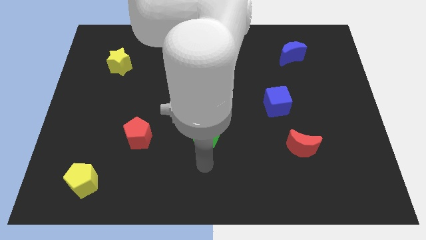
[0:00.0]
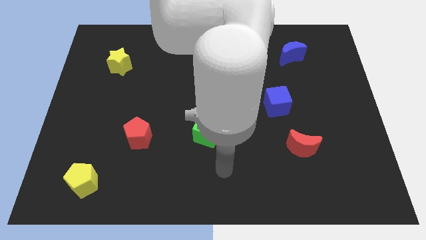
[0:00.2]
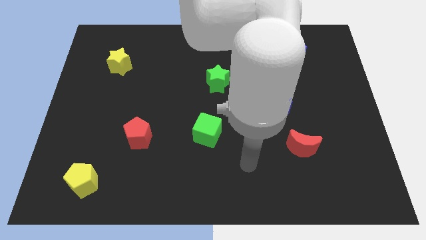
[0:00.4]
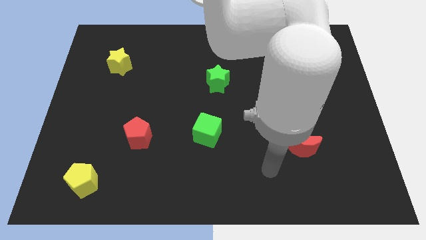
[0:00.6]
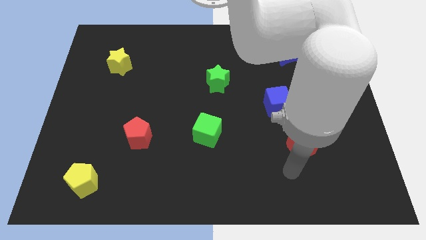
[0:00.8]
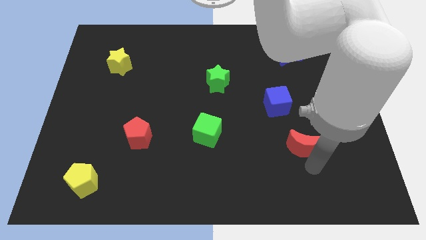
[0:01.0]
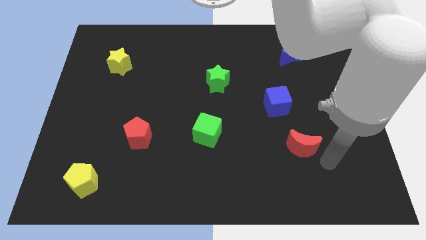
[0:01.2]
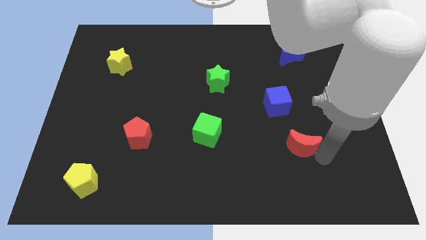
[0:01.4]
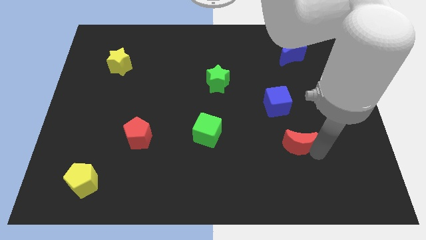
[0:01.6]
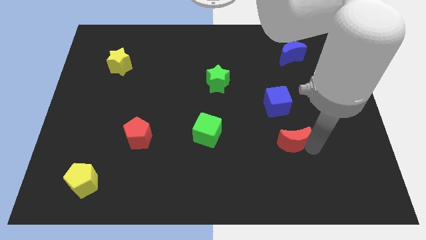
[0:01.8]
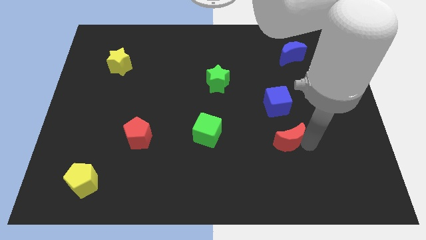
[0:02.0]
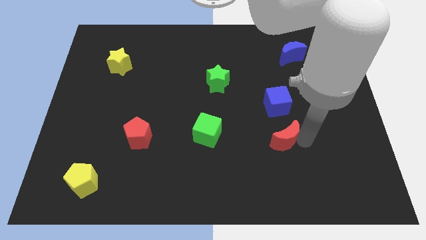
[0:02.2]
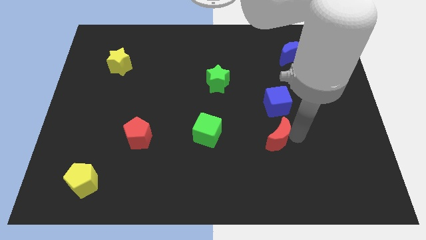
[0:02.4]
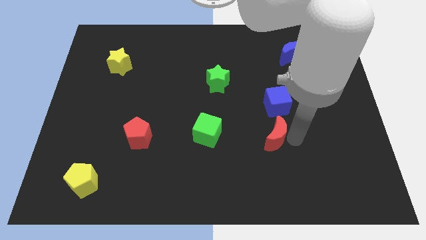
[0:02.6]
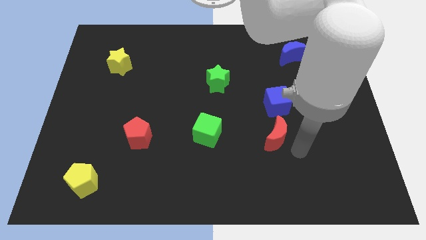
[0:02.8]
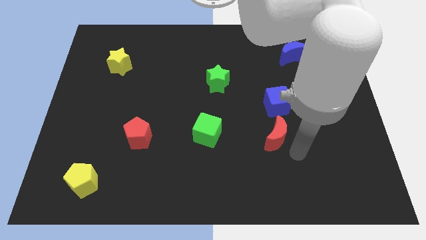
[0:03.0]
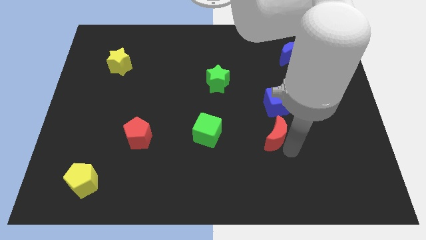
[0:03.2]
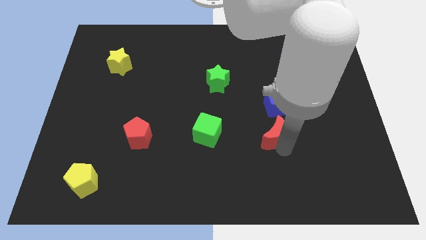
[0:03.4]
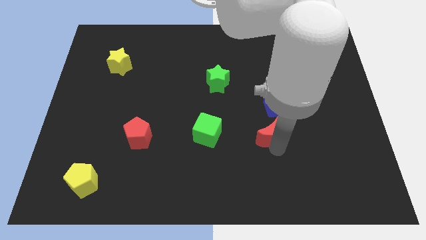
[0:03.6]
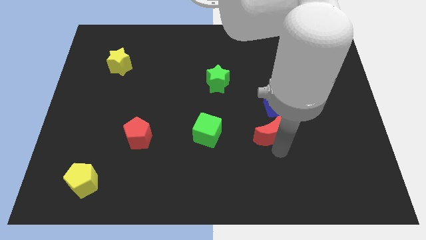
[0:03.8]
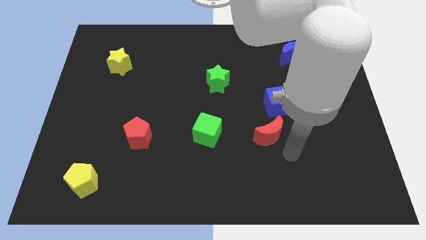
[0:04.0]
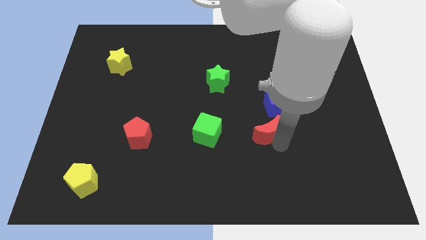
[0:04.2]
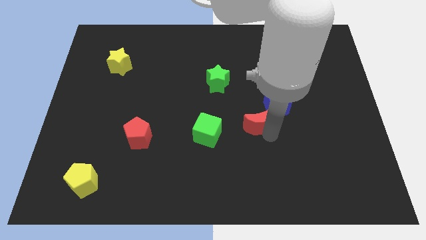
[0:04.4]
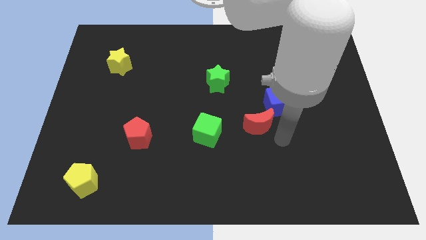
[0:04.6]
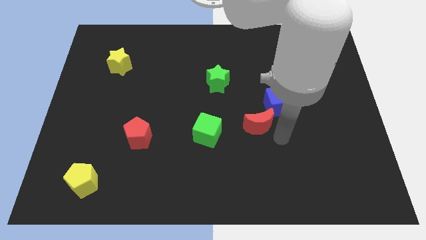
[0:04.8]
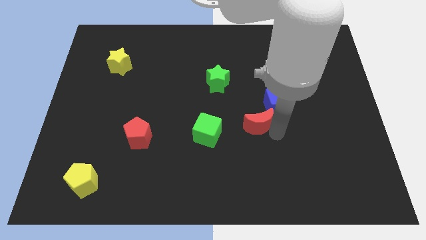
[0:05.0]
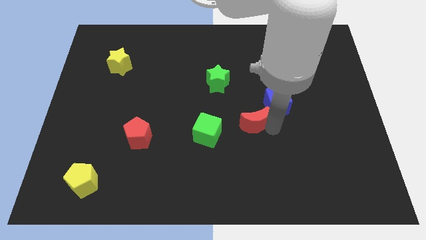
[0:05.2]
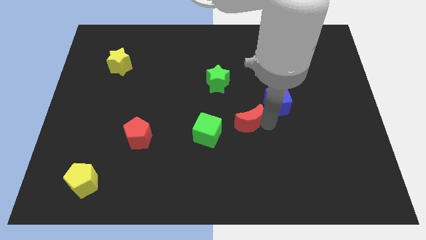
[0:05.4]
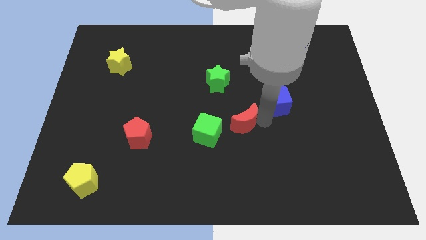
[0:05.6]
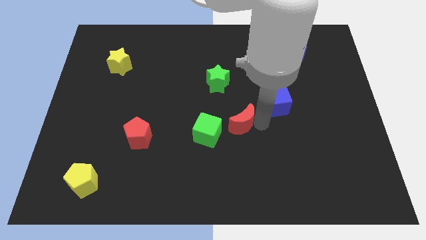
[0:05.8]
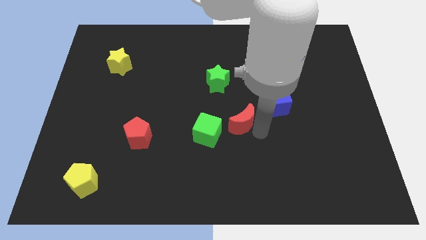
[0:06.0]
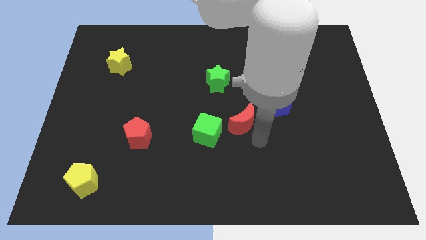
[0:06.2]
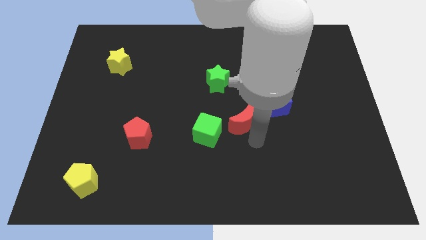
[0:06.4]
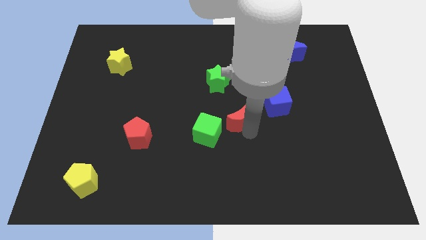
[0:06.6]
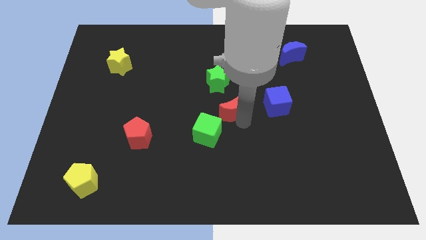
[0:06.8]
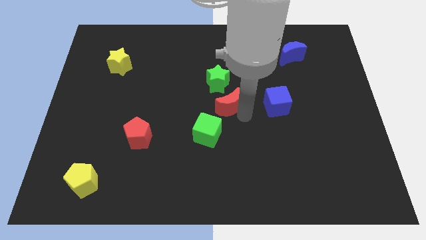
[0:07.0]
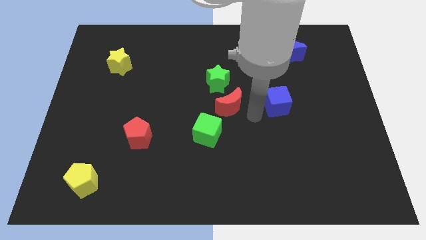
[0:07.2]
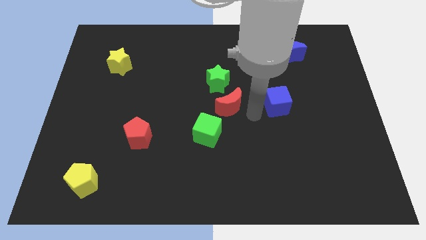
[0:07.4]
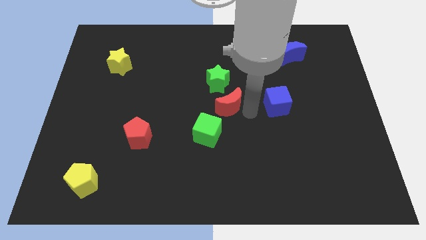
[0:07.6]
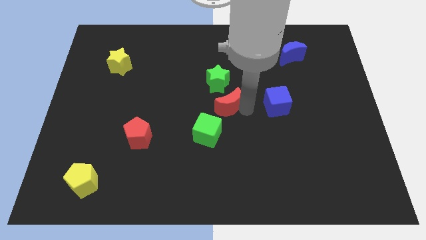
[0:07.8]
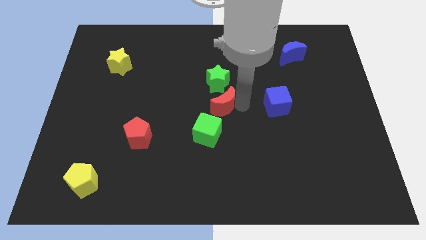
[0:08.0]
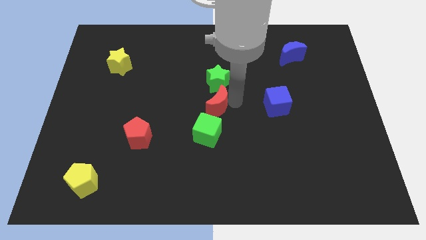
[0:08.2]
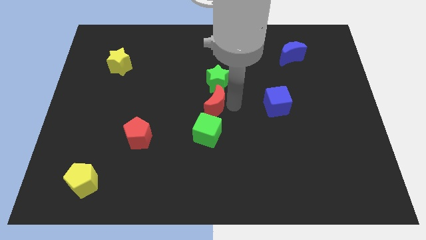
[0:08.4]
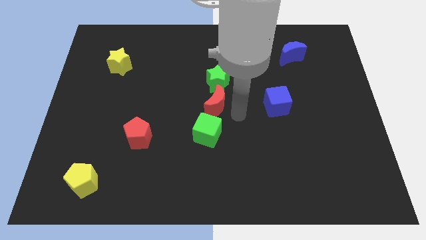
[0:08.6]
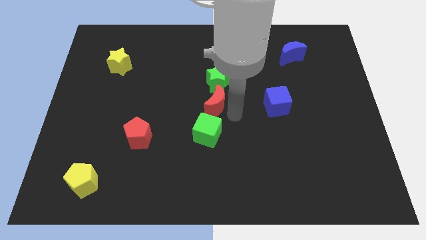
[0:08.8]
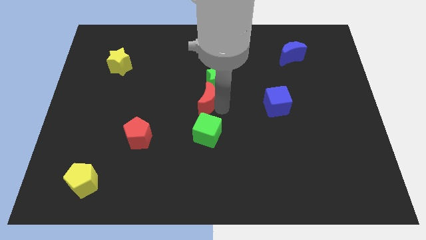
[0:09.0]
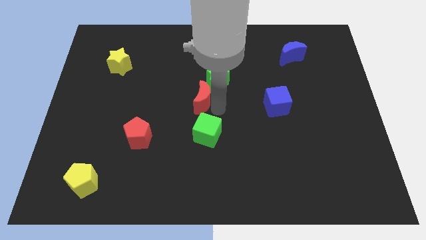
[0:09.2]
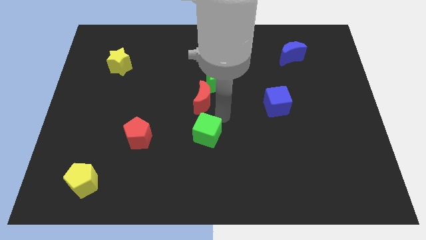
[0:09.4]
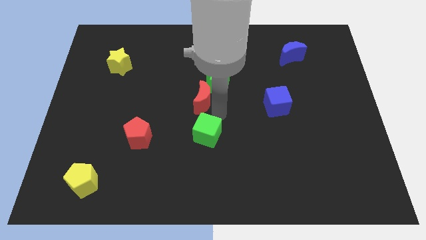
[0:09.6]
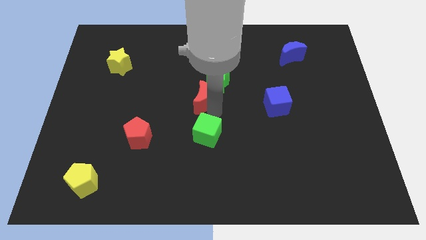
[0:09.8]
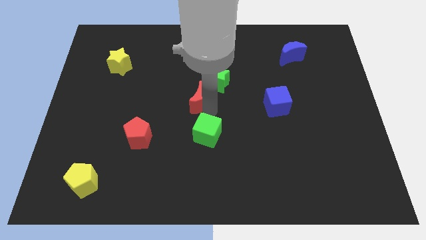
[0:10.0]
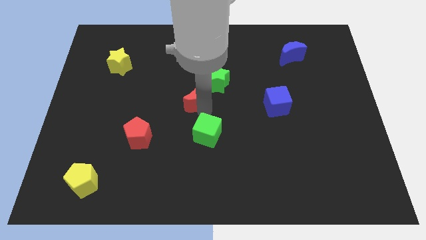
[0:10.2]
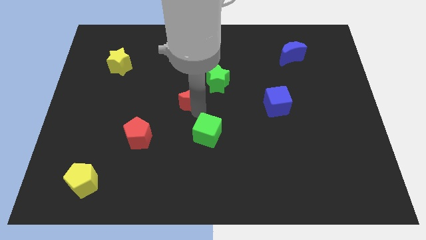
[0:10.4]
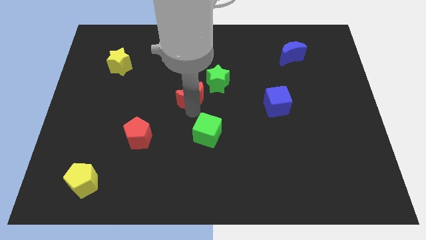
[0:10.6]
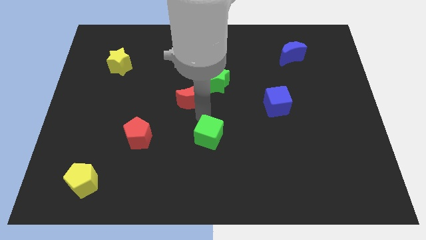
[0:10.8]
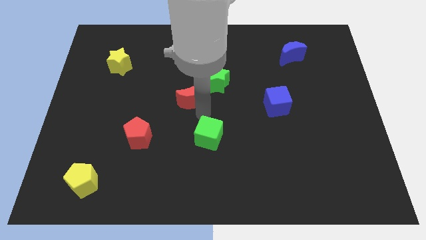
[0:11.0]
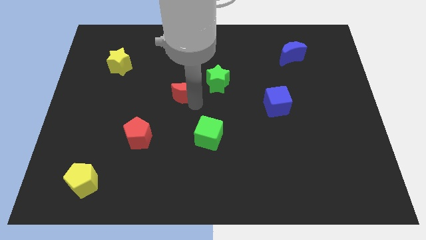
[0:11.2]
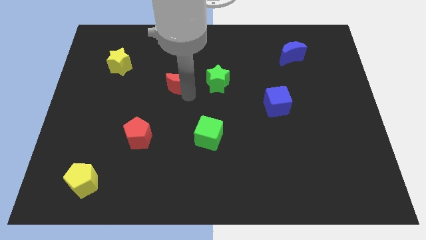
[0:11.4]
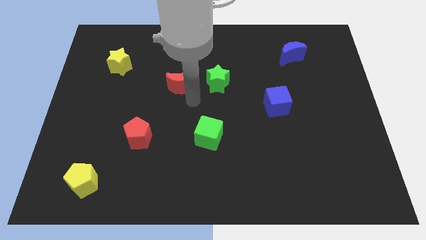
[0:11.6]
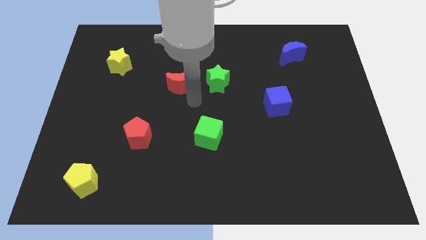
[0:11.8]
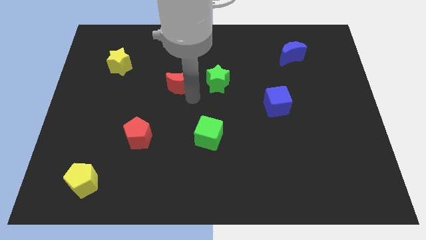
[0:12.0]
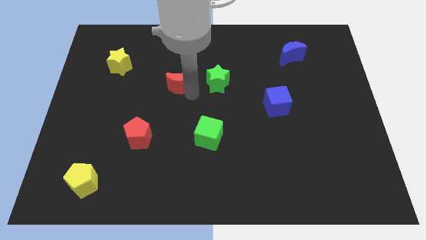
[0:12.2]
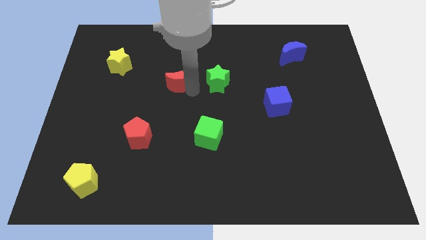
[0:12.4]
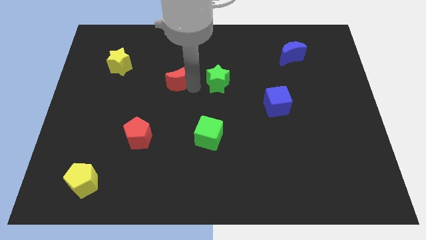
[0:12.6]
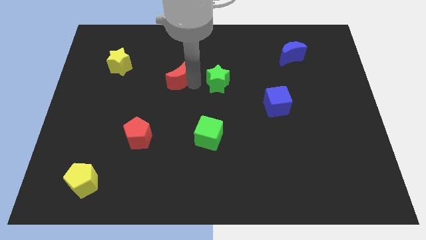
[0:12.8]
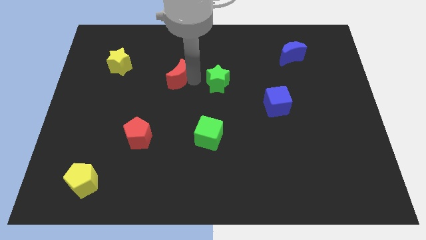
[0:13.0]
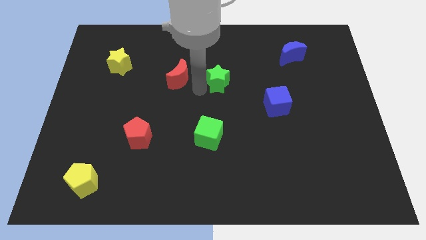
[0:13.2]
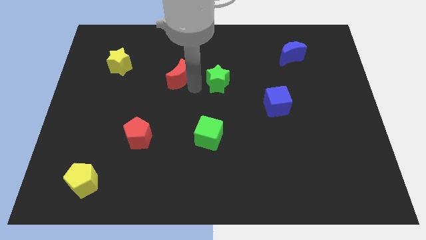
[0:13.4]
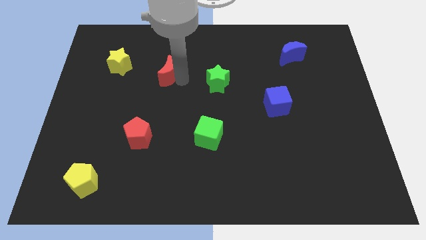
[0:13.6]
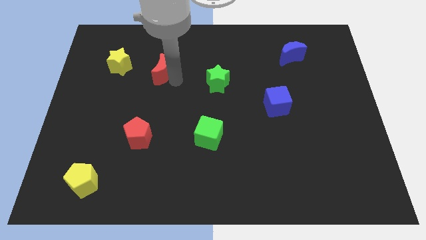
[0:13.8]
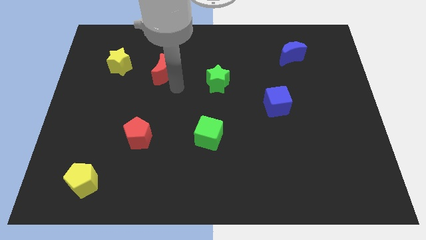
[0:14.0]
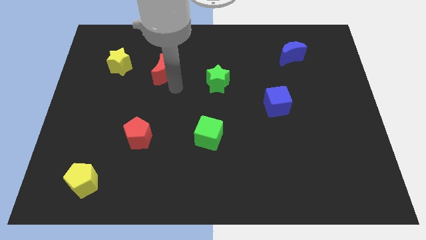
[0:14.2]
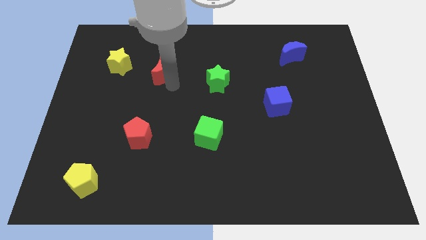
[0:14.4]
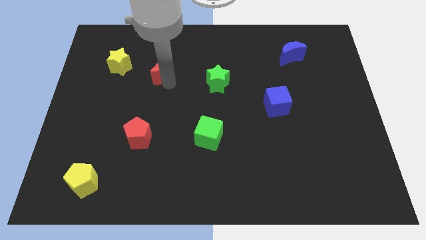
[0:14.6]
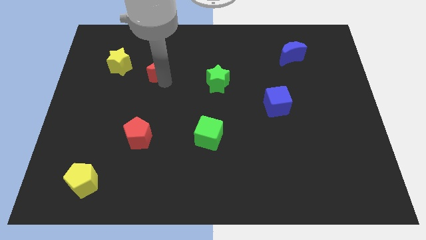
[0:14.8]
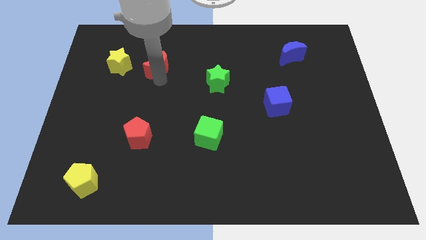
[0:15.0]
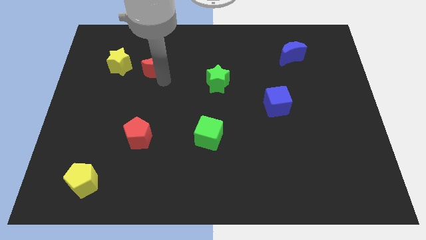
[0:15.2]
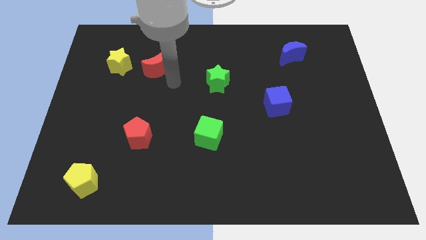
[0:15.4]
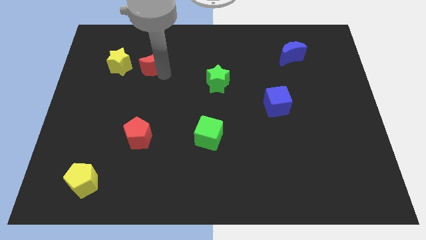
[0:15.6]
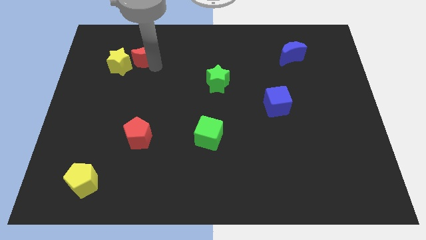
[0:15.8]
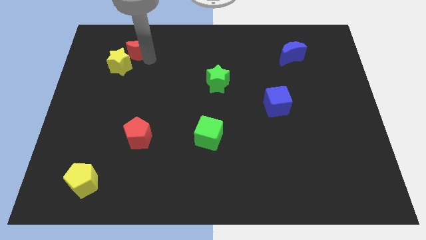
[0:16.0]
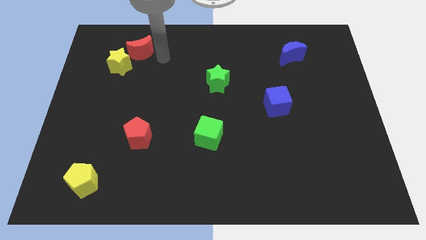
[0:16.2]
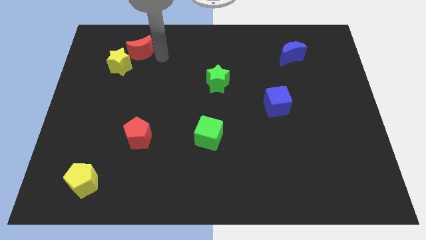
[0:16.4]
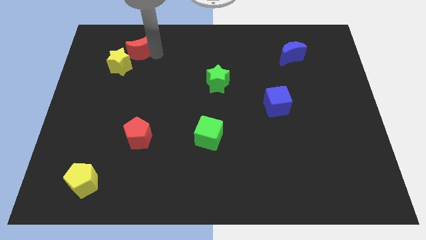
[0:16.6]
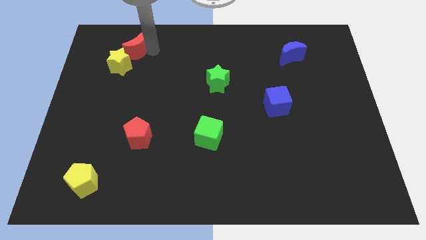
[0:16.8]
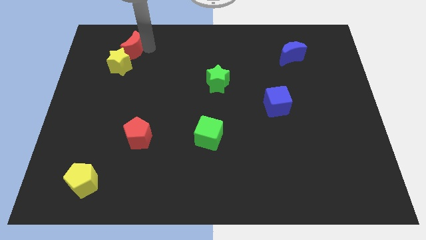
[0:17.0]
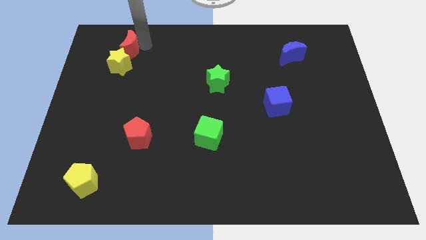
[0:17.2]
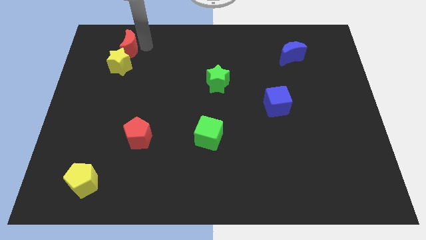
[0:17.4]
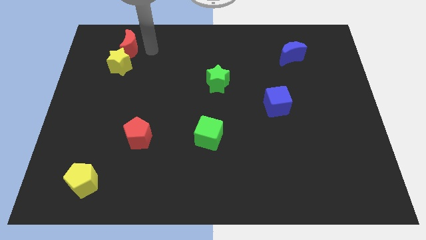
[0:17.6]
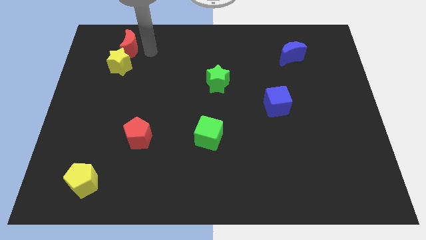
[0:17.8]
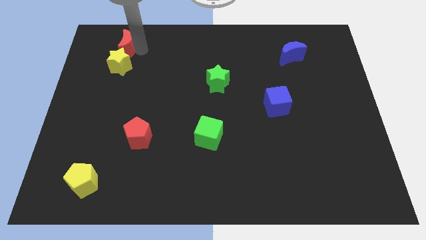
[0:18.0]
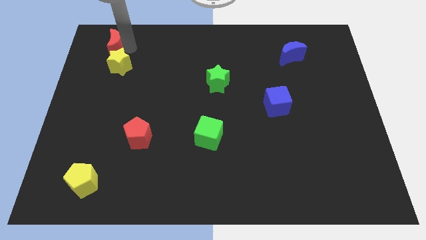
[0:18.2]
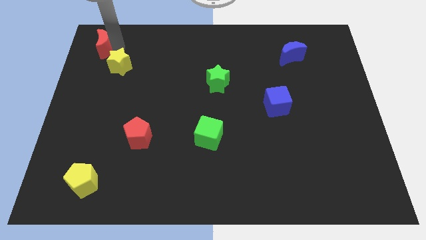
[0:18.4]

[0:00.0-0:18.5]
move the red moon to the upper left corner
